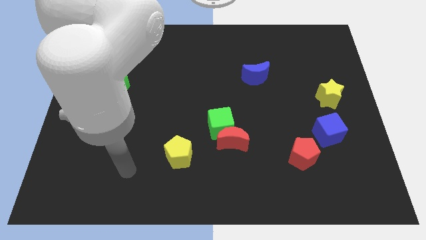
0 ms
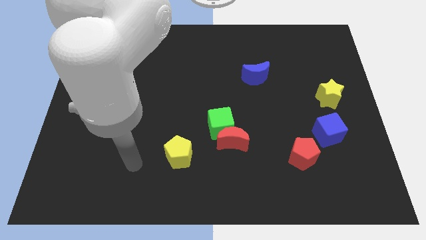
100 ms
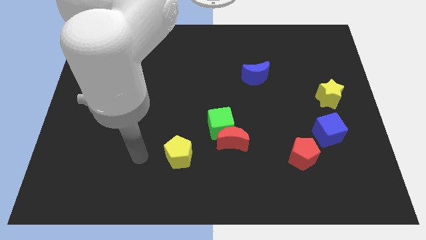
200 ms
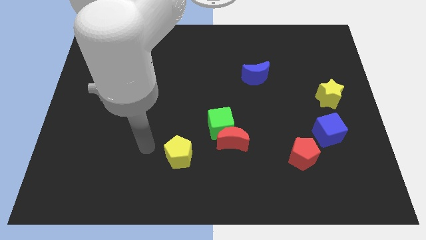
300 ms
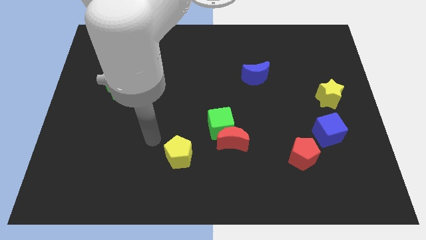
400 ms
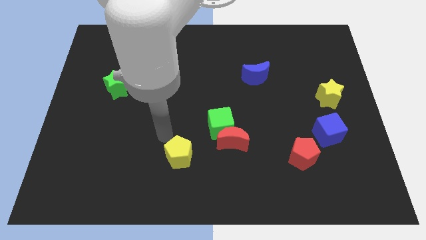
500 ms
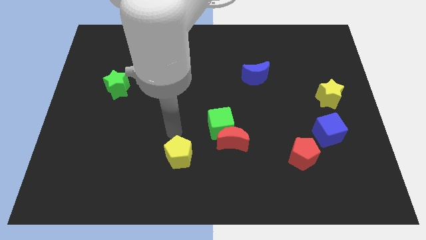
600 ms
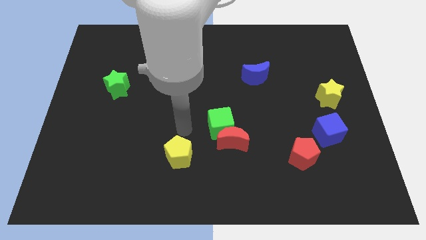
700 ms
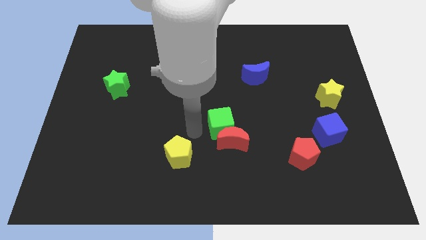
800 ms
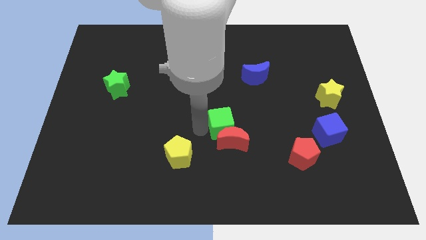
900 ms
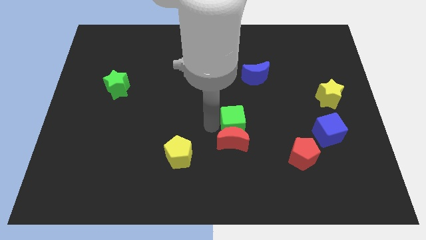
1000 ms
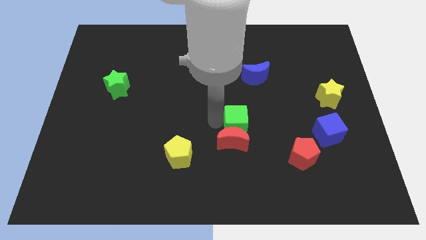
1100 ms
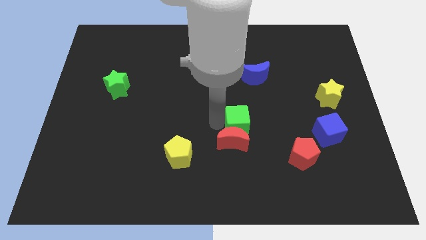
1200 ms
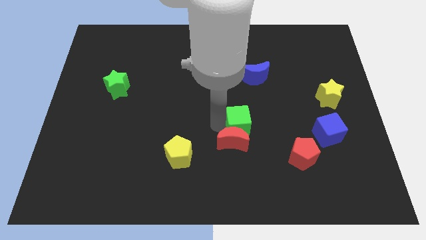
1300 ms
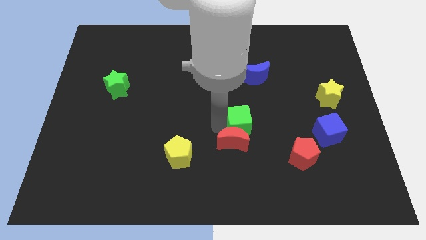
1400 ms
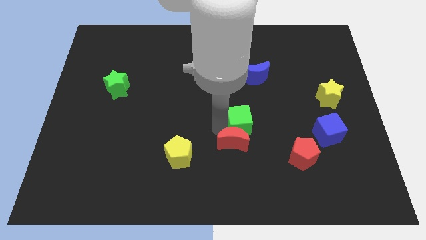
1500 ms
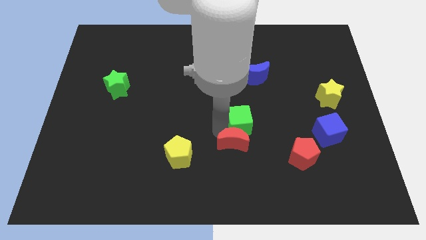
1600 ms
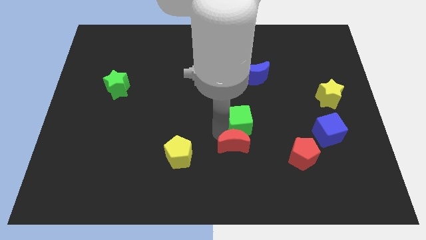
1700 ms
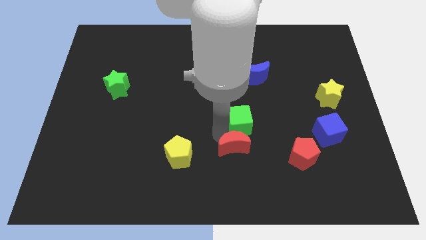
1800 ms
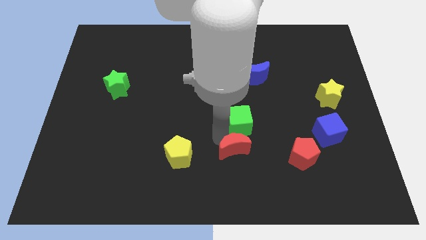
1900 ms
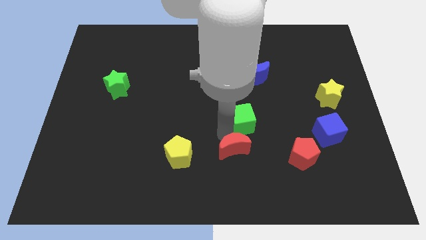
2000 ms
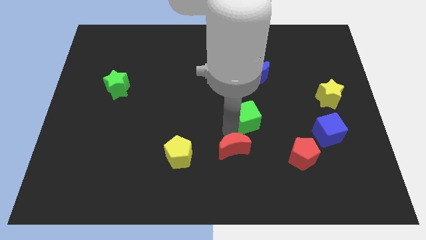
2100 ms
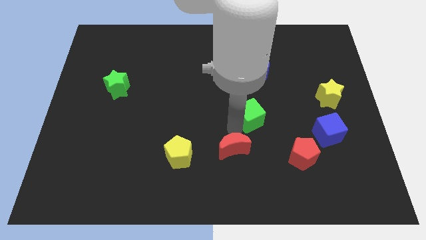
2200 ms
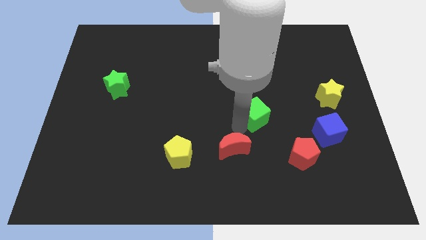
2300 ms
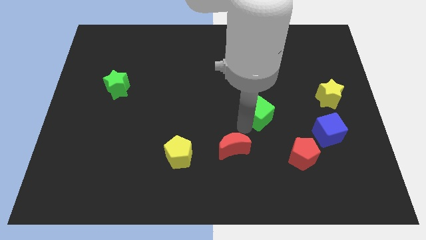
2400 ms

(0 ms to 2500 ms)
pull the red moon apart from the green cube

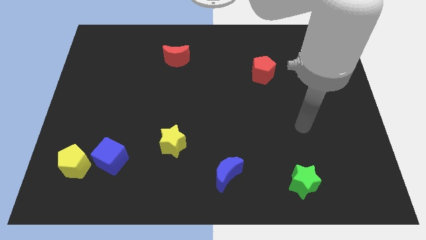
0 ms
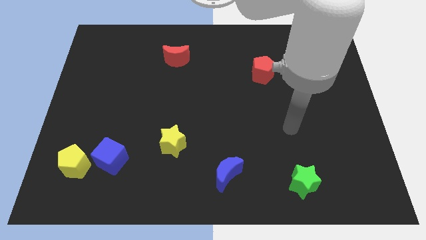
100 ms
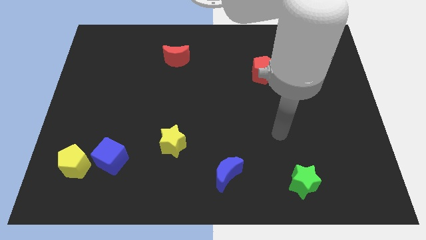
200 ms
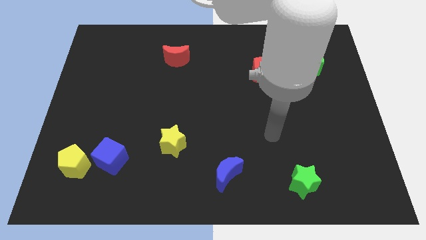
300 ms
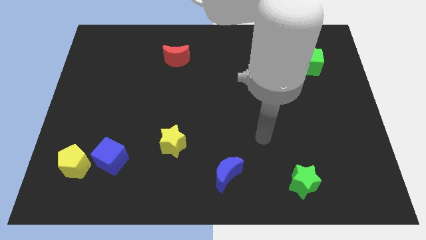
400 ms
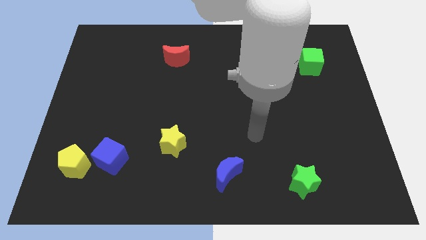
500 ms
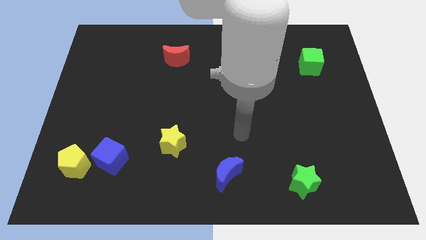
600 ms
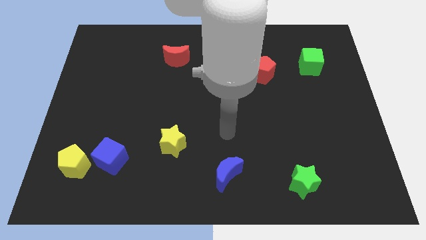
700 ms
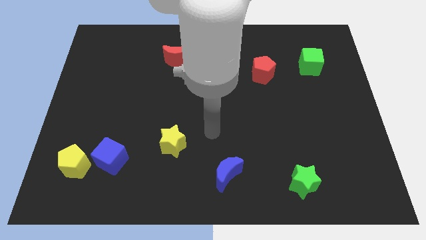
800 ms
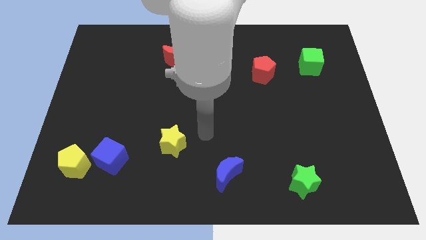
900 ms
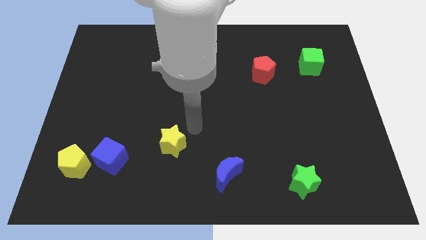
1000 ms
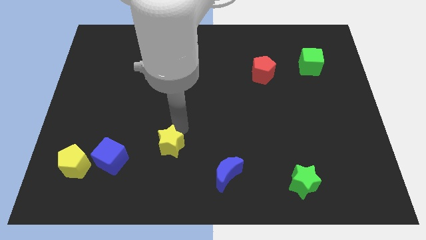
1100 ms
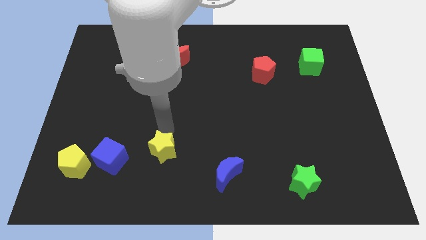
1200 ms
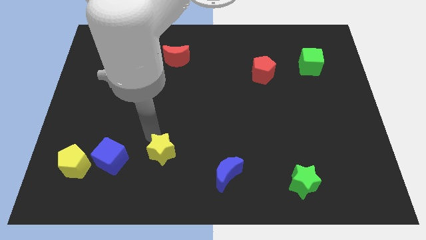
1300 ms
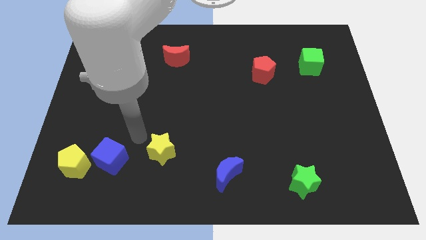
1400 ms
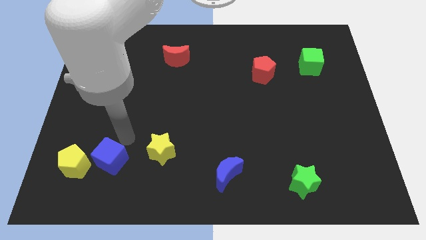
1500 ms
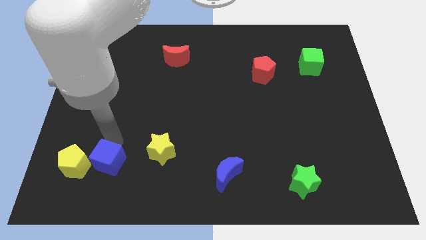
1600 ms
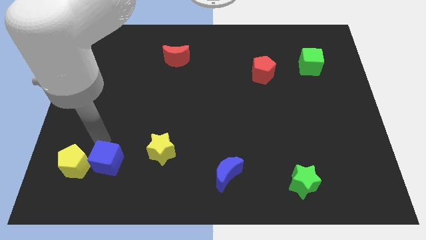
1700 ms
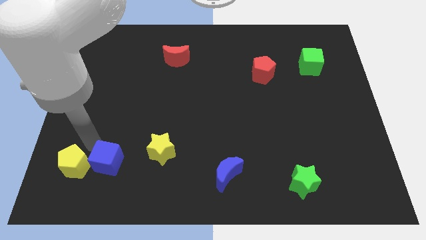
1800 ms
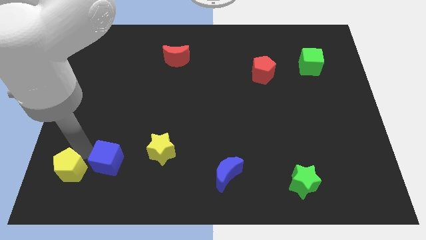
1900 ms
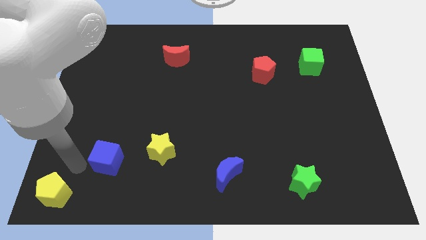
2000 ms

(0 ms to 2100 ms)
pull the blue cube apart from the yellow pentagon

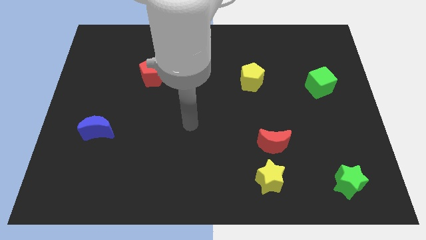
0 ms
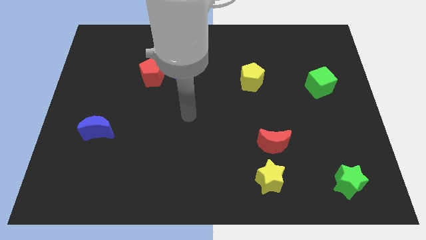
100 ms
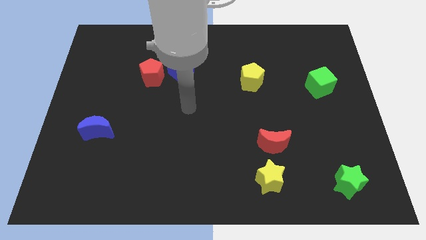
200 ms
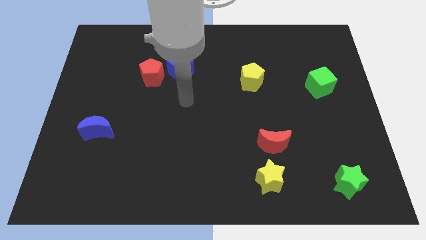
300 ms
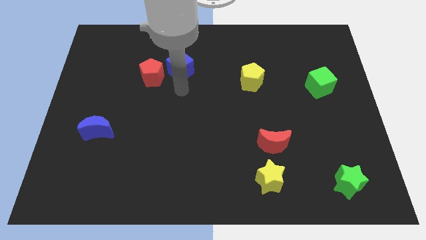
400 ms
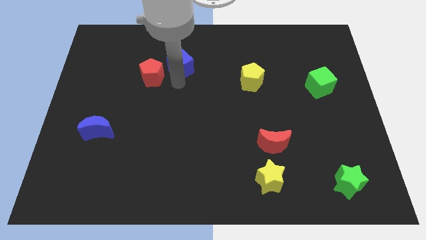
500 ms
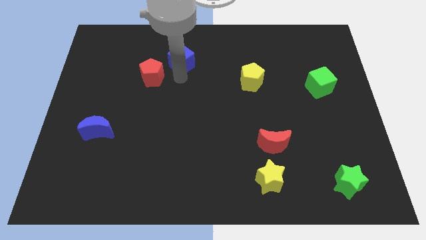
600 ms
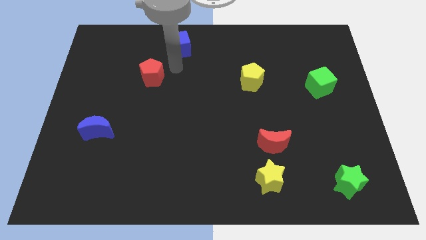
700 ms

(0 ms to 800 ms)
separate the red pentagon from the blue cube

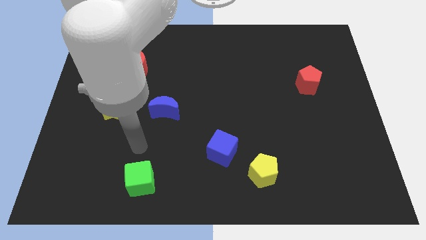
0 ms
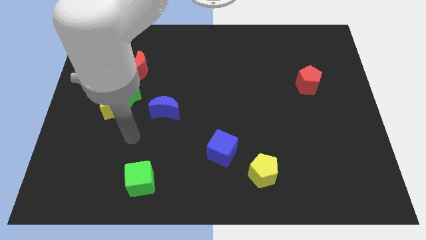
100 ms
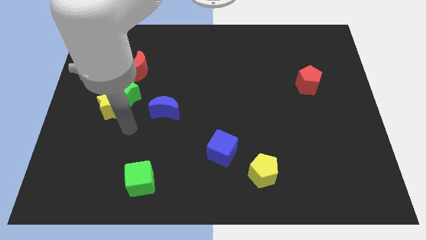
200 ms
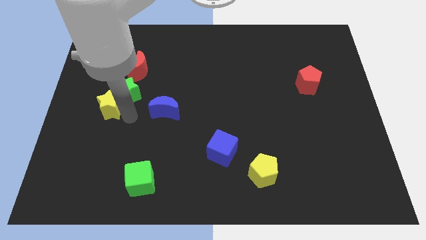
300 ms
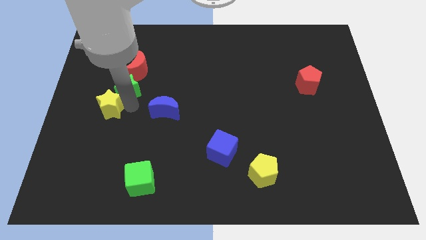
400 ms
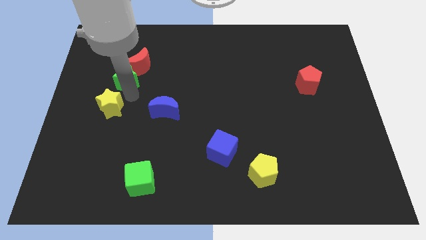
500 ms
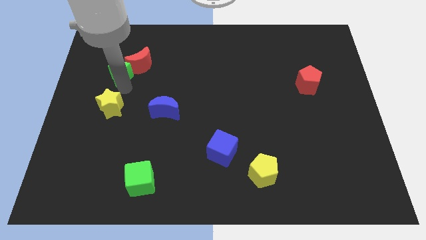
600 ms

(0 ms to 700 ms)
pull the yellow star apart from the green star

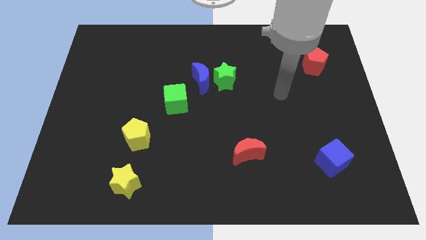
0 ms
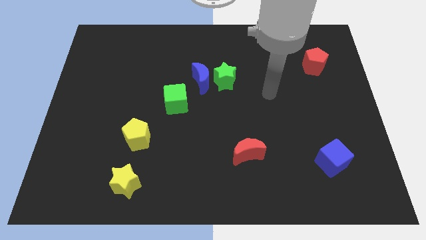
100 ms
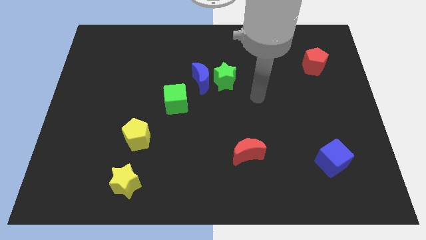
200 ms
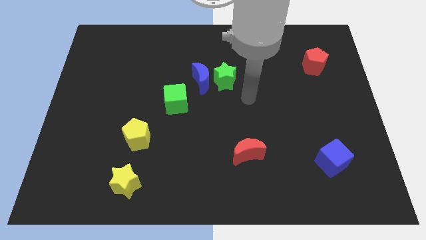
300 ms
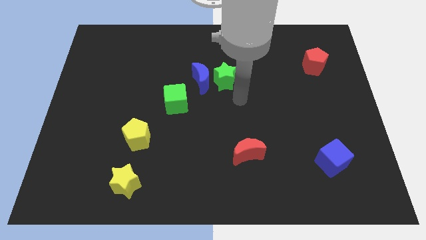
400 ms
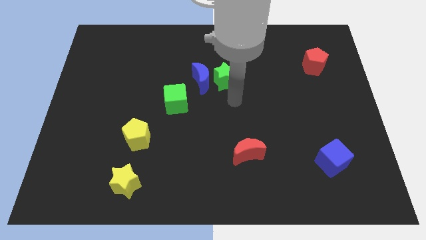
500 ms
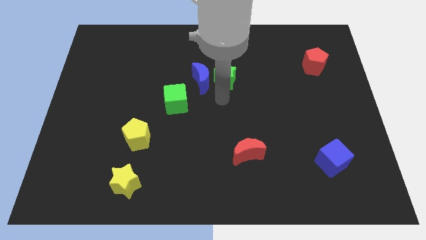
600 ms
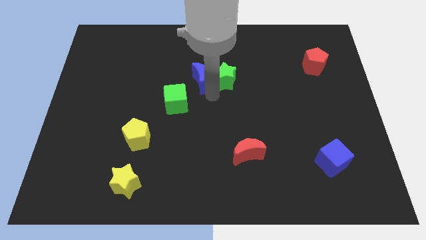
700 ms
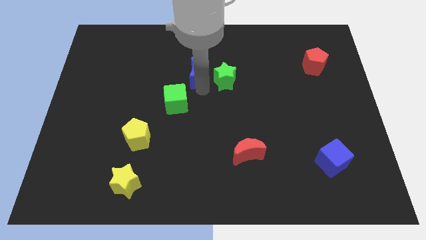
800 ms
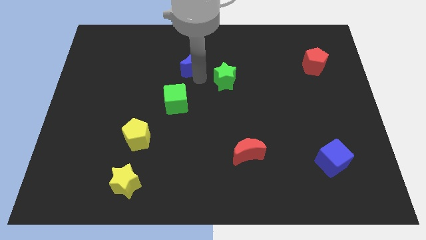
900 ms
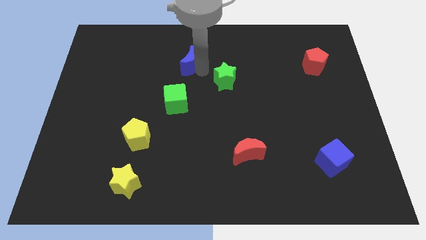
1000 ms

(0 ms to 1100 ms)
separate the green star from the blue moon

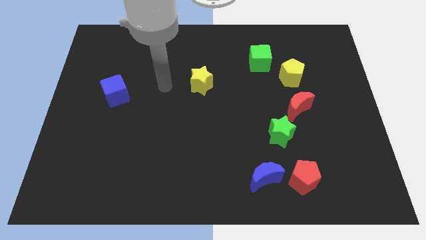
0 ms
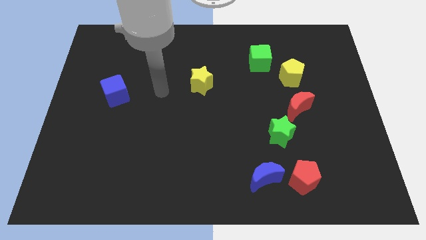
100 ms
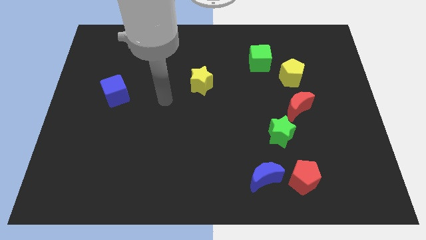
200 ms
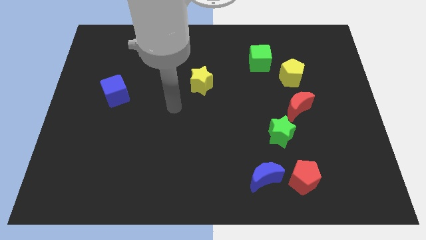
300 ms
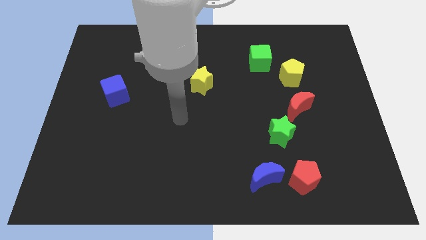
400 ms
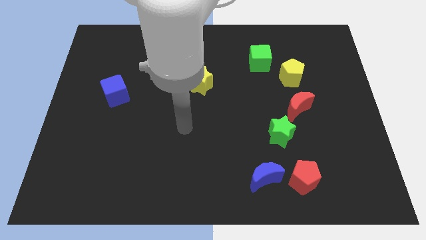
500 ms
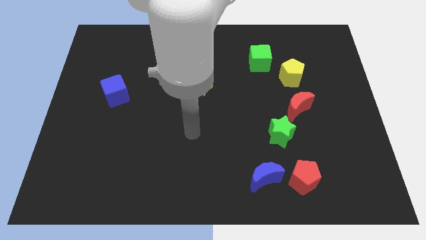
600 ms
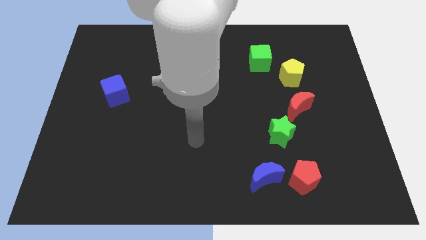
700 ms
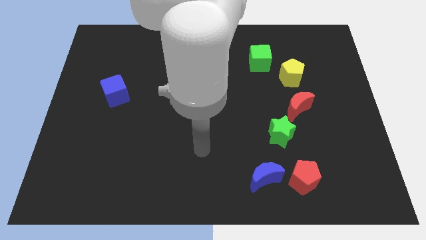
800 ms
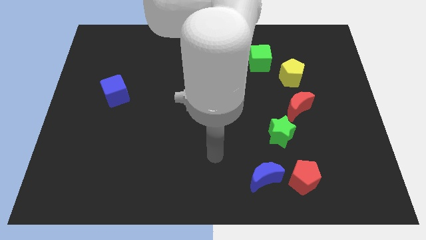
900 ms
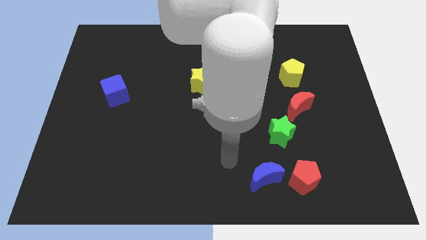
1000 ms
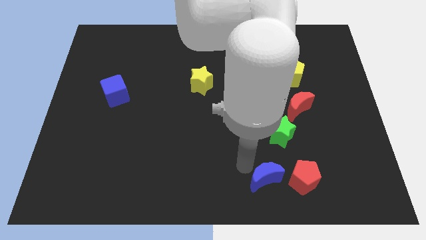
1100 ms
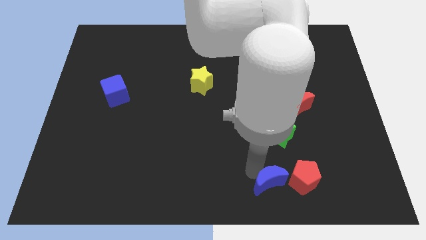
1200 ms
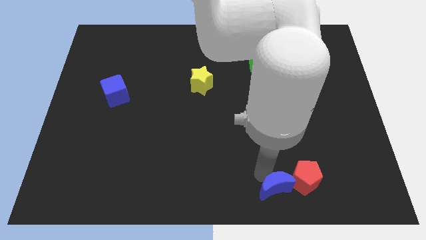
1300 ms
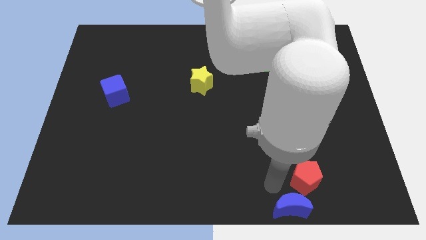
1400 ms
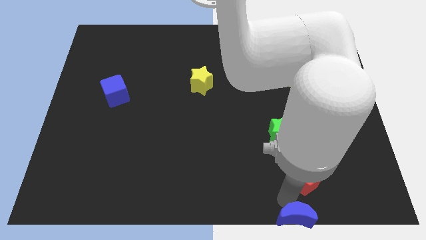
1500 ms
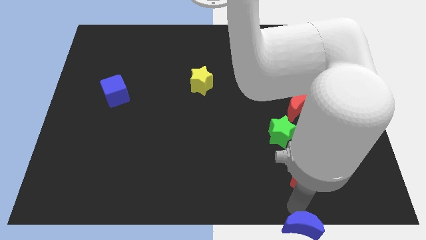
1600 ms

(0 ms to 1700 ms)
move the red pentagon away from the blue moon

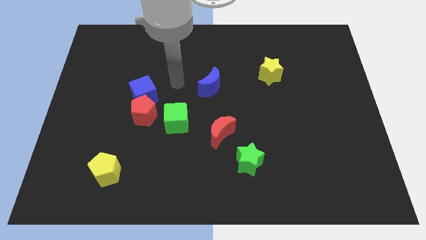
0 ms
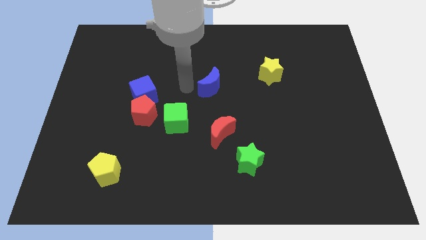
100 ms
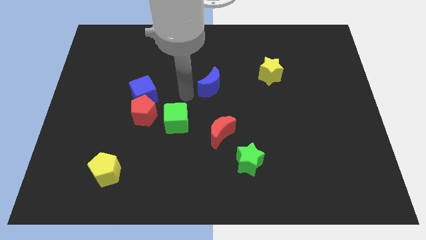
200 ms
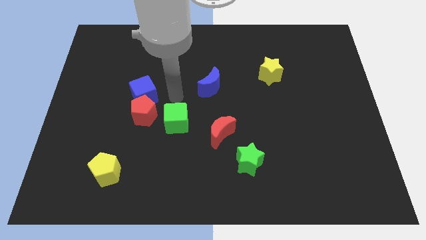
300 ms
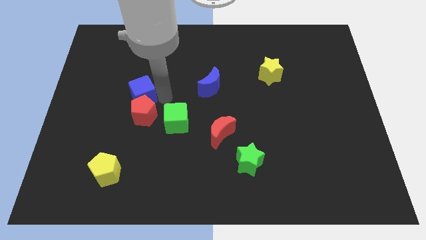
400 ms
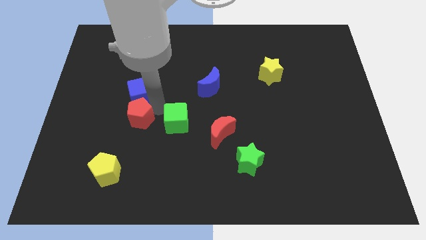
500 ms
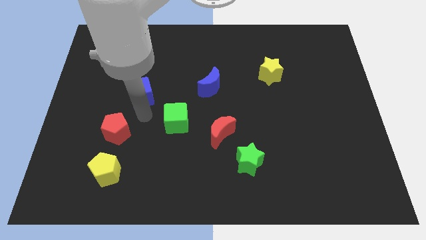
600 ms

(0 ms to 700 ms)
move the blue cube away from the red pentagon
